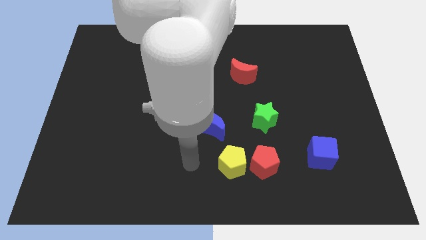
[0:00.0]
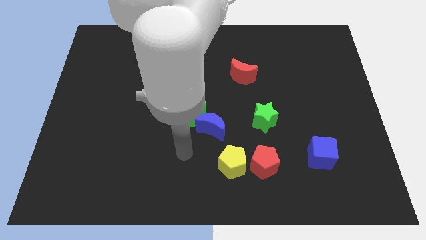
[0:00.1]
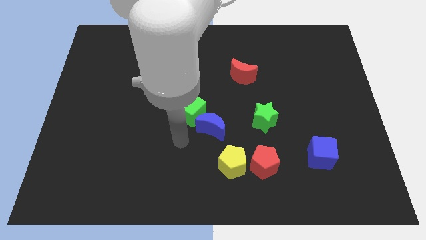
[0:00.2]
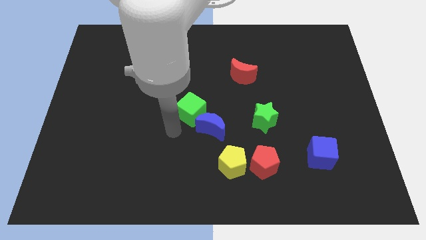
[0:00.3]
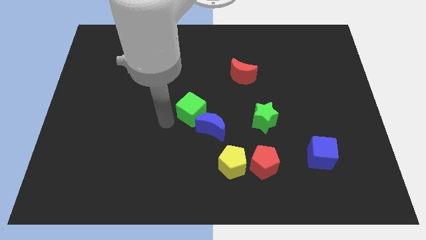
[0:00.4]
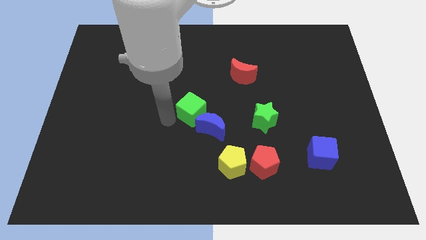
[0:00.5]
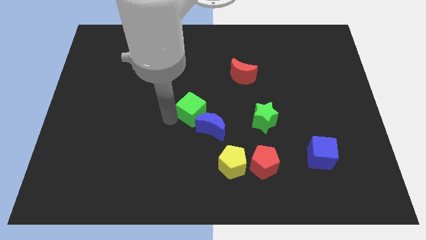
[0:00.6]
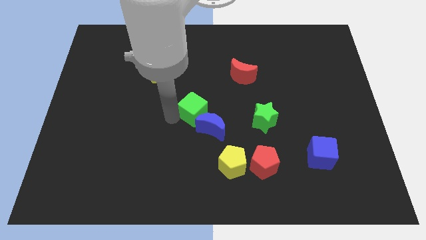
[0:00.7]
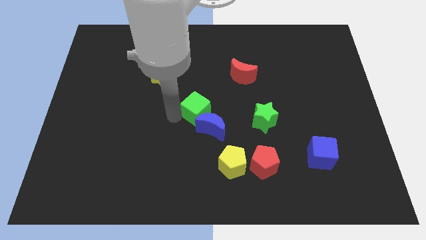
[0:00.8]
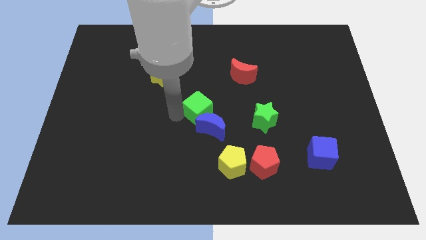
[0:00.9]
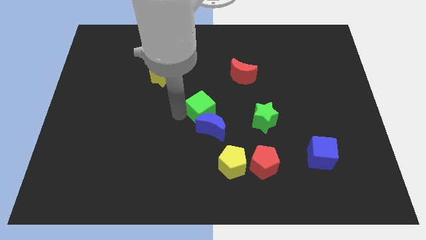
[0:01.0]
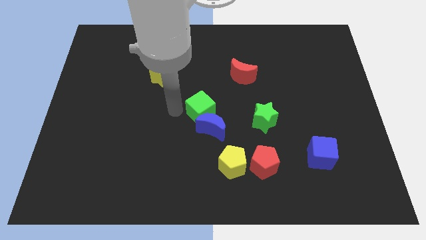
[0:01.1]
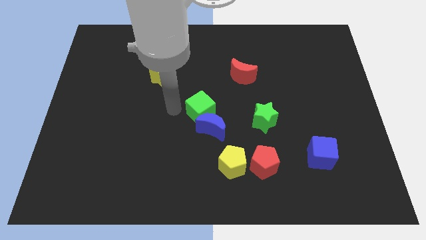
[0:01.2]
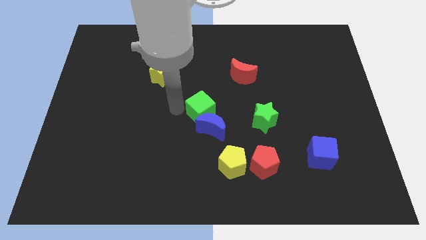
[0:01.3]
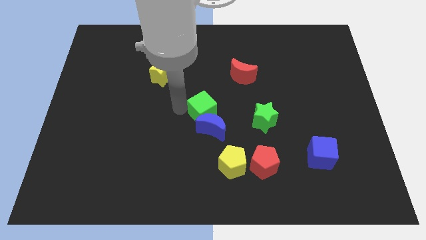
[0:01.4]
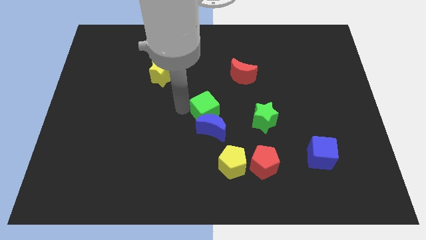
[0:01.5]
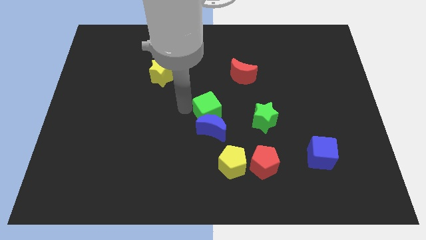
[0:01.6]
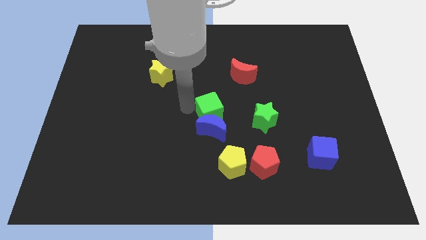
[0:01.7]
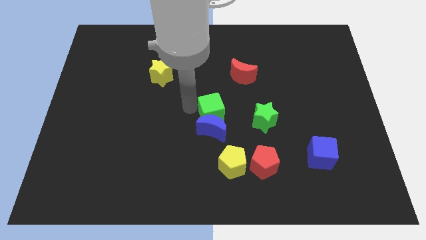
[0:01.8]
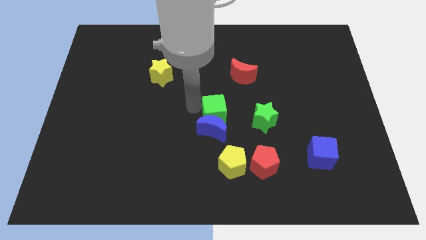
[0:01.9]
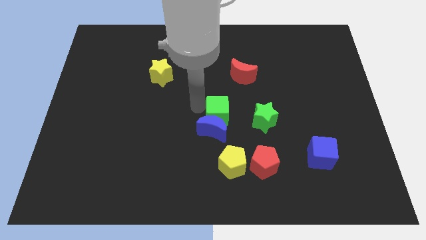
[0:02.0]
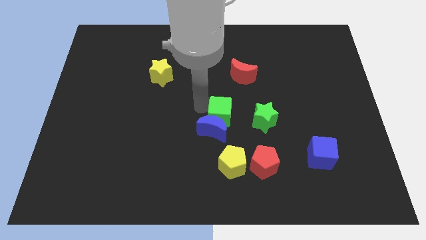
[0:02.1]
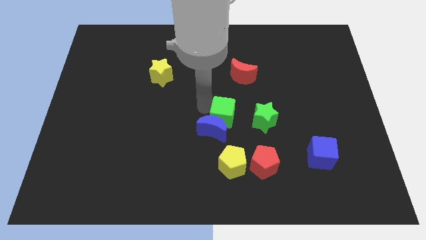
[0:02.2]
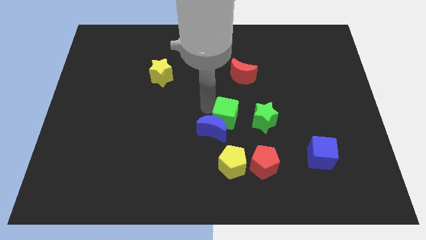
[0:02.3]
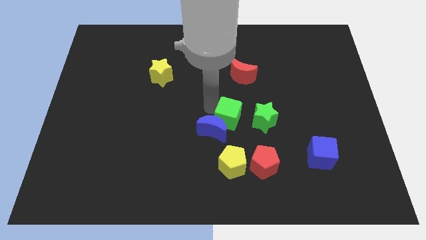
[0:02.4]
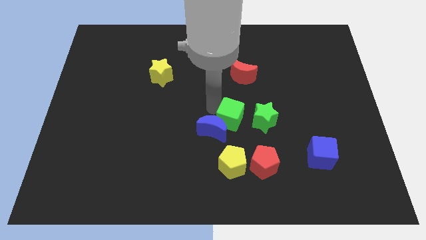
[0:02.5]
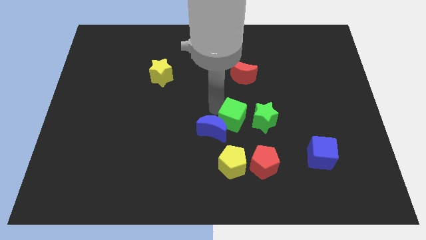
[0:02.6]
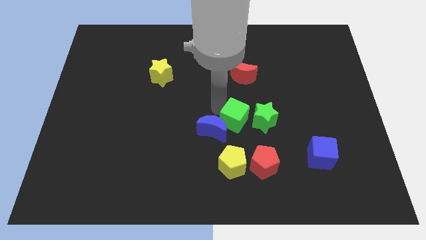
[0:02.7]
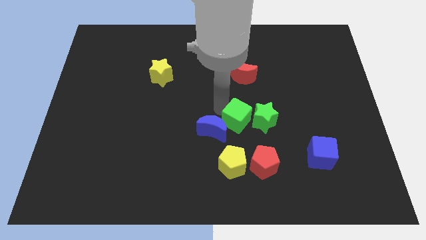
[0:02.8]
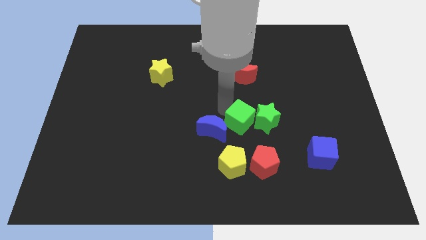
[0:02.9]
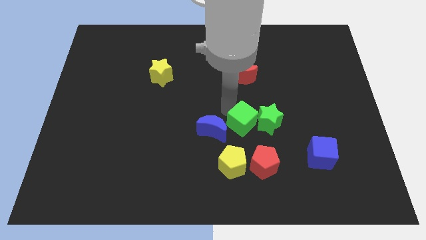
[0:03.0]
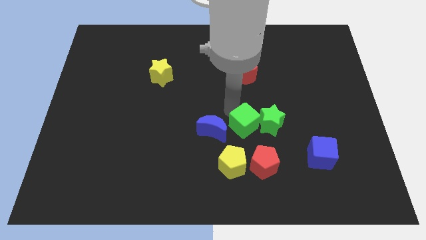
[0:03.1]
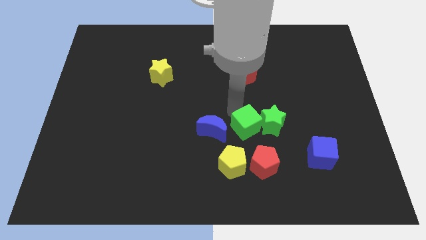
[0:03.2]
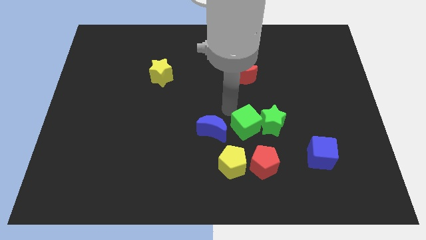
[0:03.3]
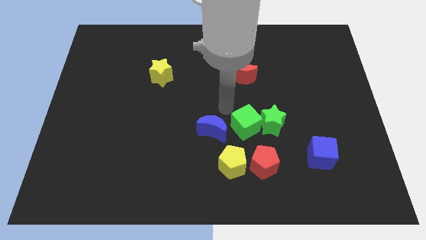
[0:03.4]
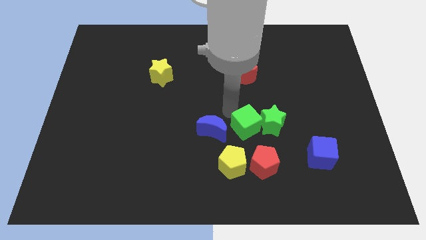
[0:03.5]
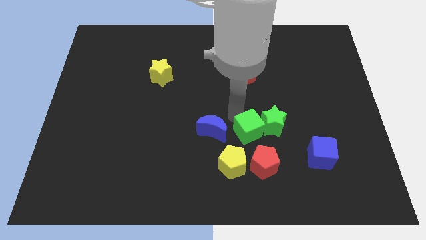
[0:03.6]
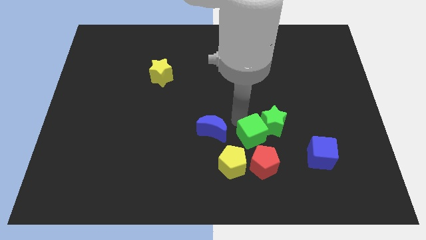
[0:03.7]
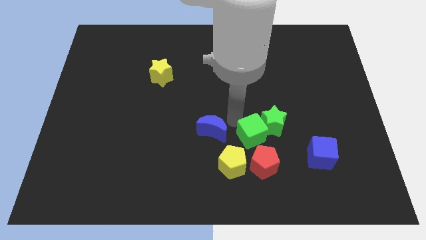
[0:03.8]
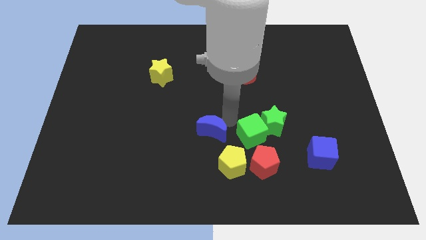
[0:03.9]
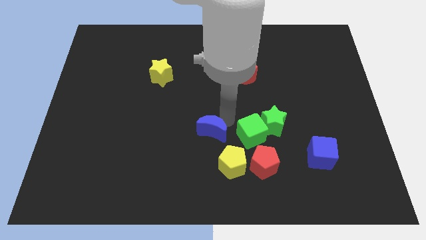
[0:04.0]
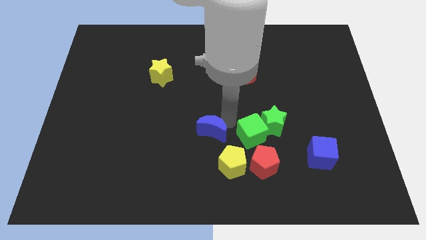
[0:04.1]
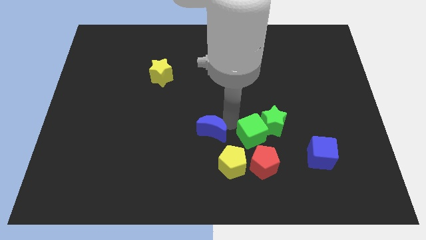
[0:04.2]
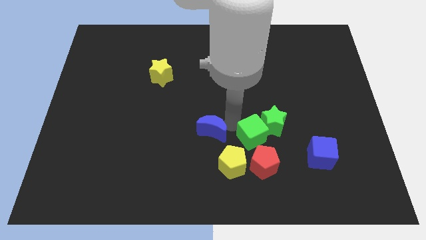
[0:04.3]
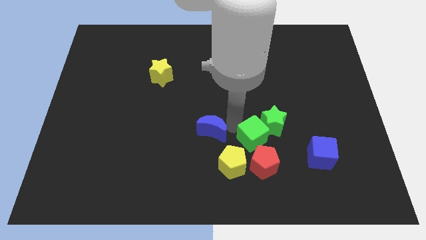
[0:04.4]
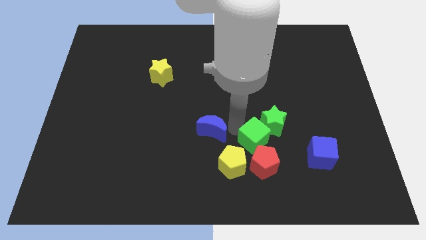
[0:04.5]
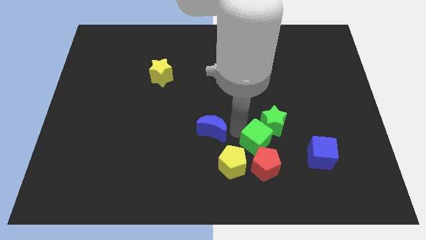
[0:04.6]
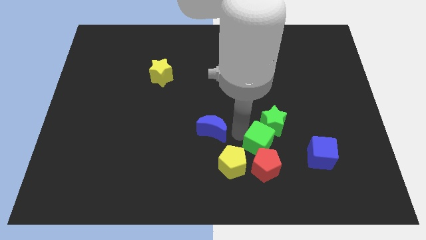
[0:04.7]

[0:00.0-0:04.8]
put the green cube diagonally up and to the right of the red pentagon

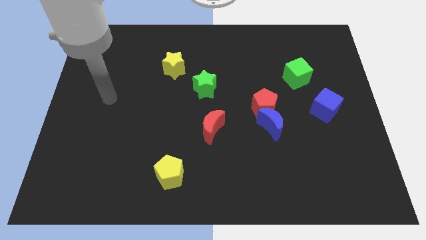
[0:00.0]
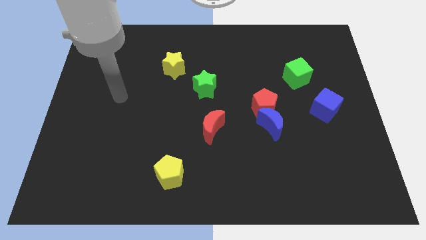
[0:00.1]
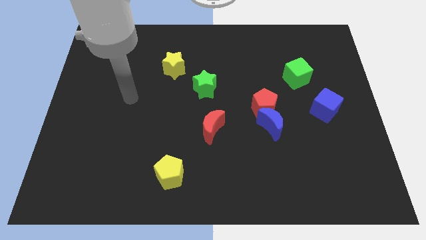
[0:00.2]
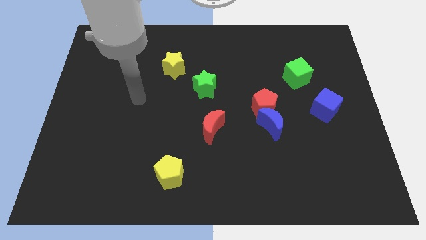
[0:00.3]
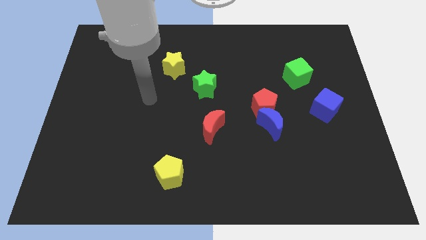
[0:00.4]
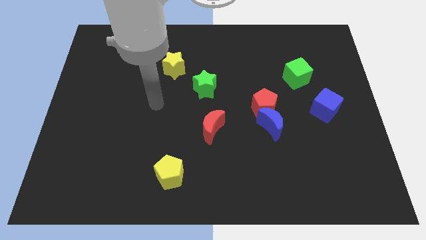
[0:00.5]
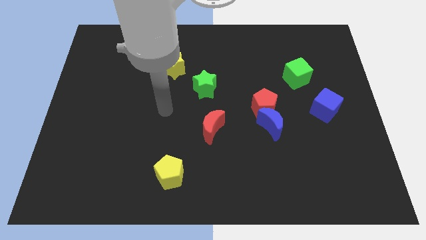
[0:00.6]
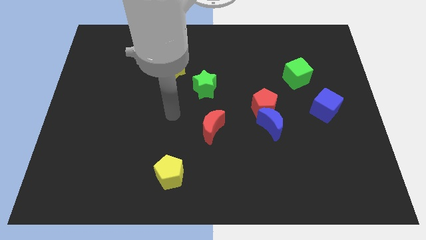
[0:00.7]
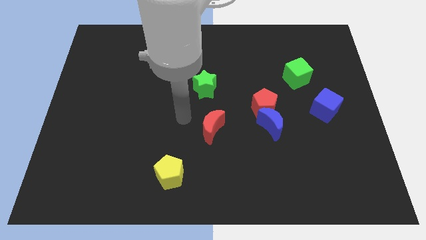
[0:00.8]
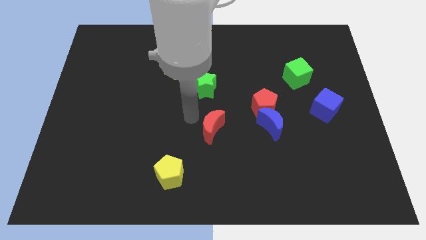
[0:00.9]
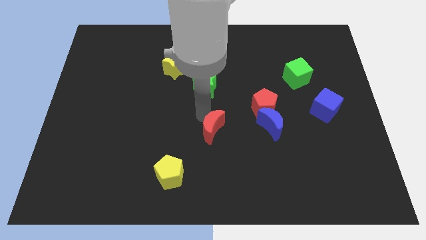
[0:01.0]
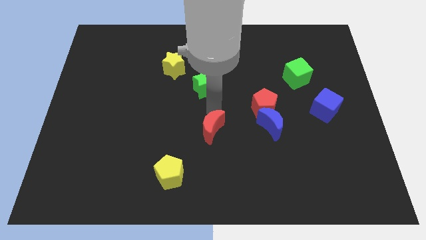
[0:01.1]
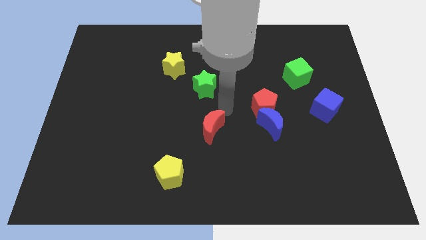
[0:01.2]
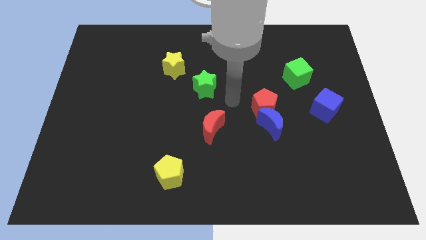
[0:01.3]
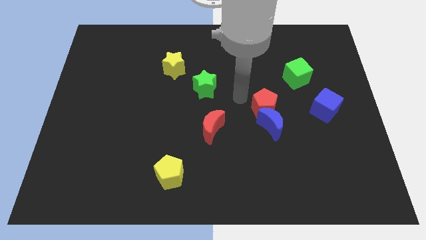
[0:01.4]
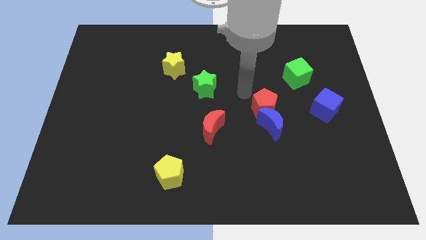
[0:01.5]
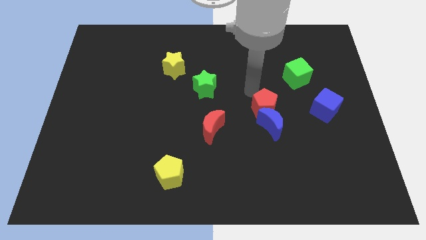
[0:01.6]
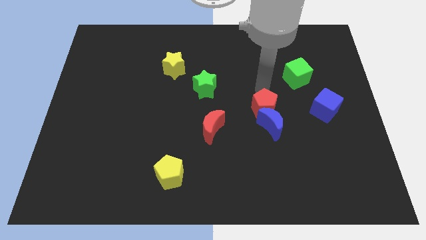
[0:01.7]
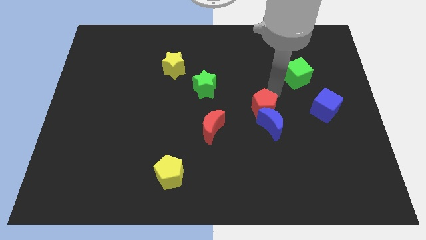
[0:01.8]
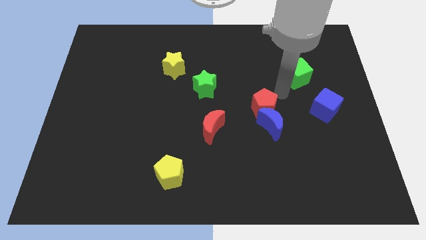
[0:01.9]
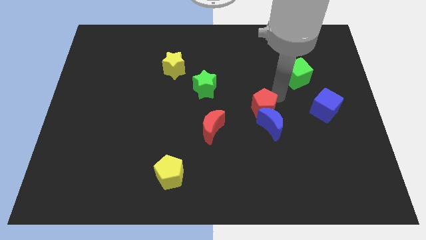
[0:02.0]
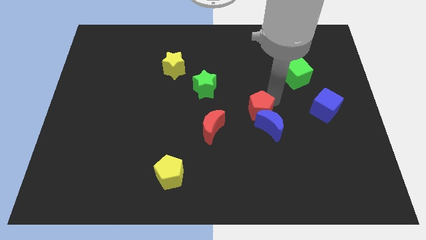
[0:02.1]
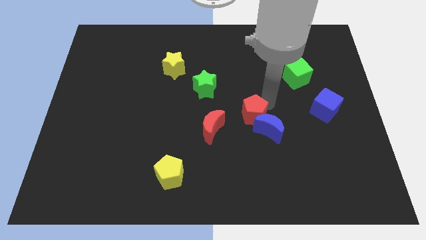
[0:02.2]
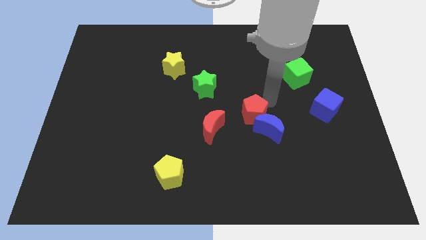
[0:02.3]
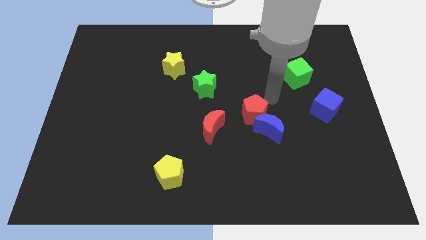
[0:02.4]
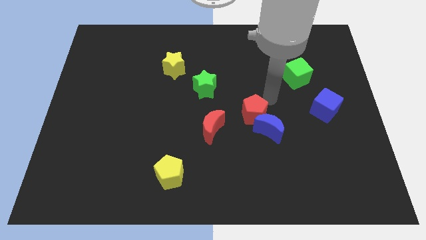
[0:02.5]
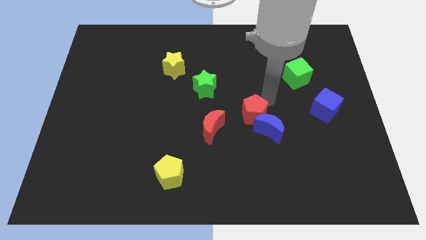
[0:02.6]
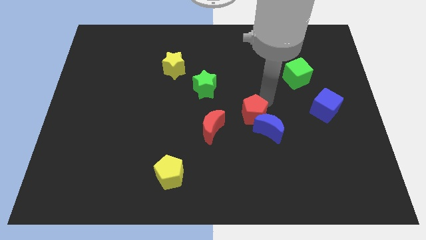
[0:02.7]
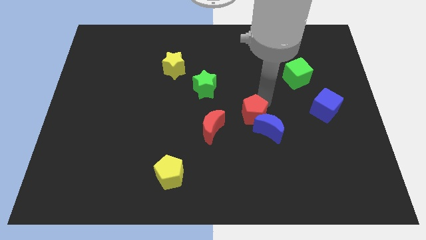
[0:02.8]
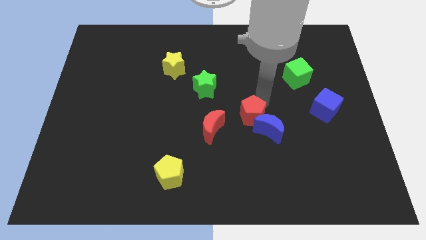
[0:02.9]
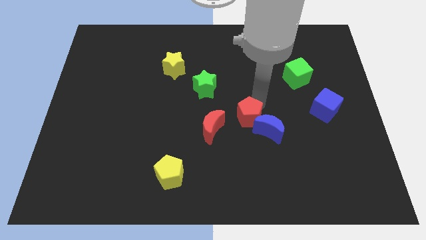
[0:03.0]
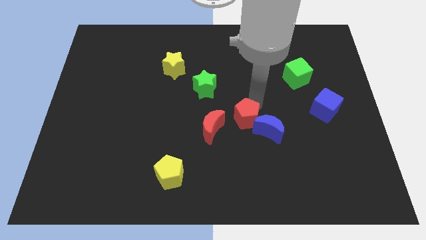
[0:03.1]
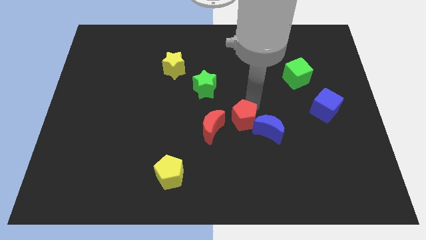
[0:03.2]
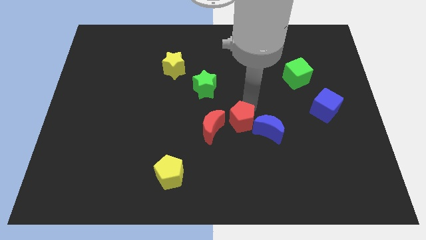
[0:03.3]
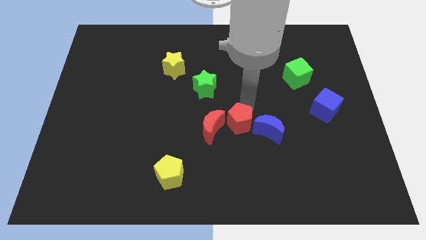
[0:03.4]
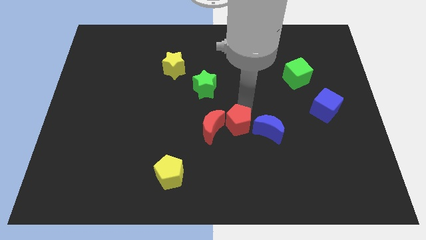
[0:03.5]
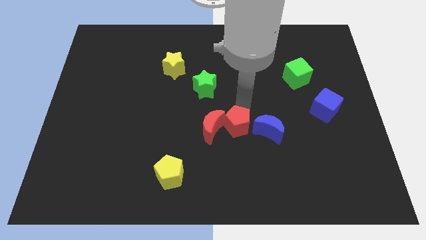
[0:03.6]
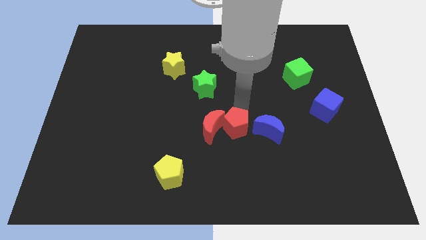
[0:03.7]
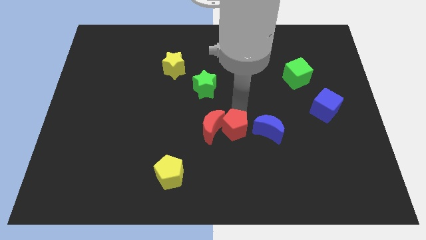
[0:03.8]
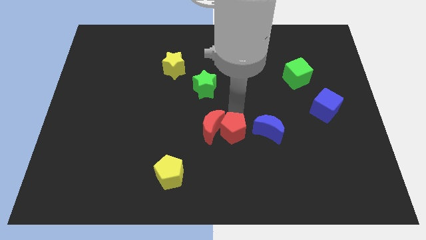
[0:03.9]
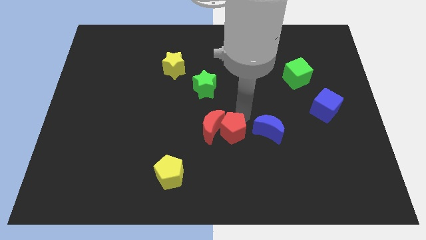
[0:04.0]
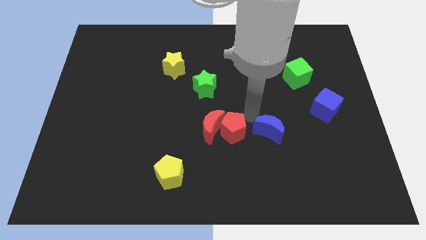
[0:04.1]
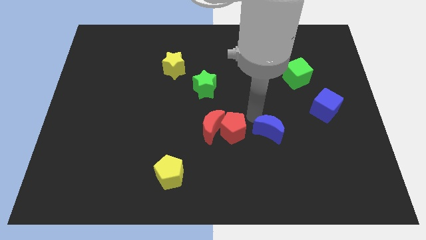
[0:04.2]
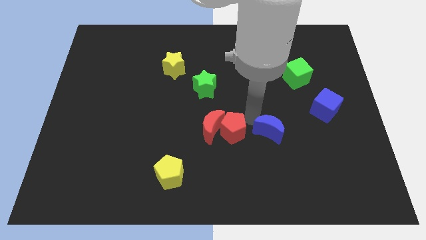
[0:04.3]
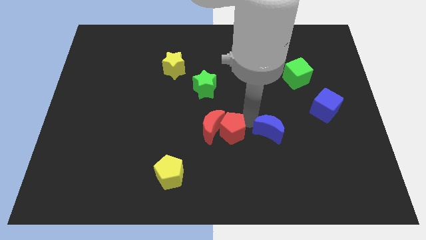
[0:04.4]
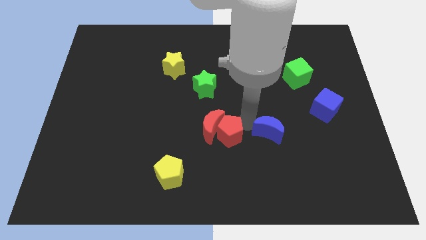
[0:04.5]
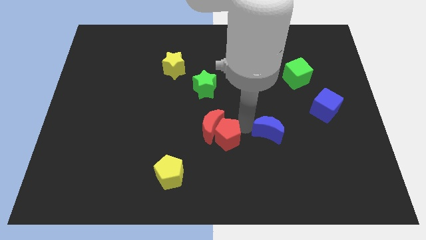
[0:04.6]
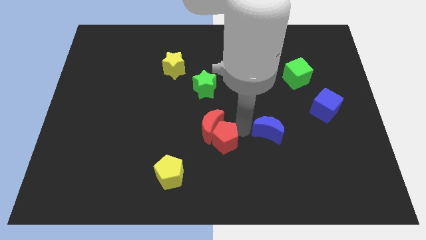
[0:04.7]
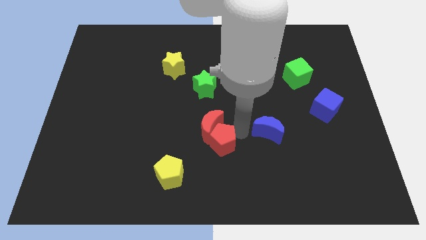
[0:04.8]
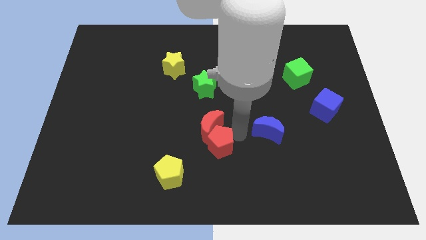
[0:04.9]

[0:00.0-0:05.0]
slide the red pentagon diagonally up and to the right of the yellow pentagon
